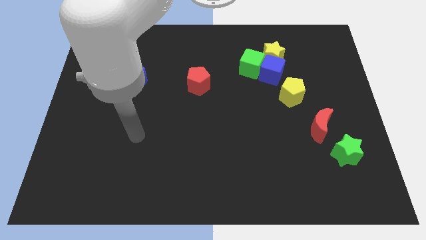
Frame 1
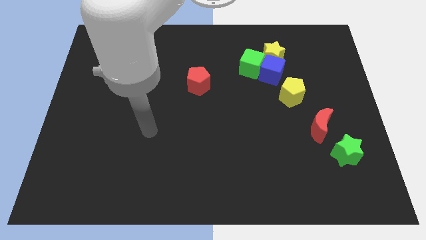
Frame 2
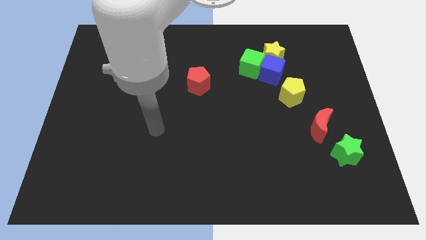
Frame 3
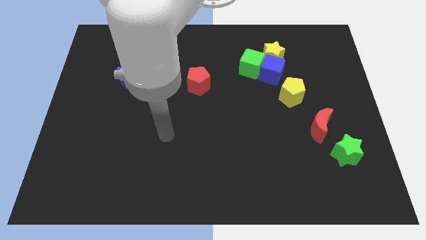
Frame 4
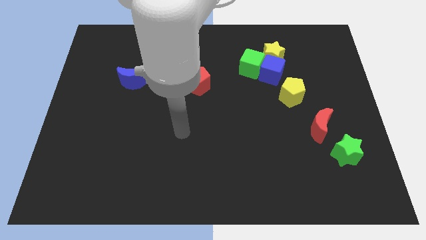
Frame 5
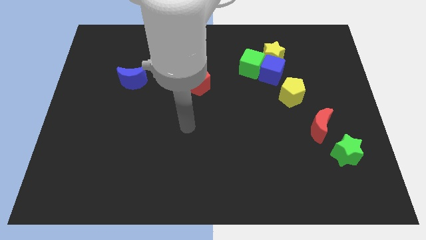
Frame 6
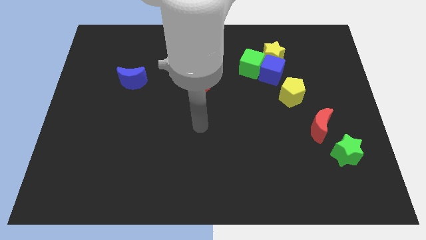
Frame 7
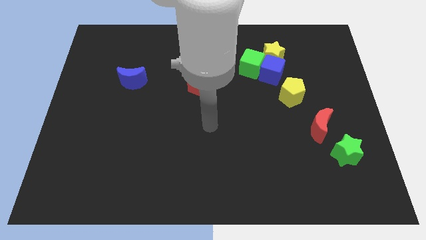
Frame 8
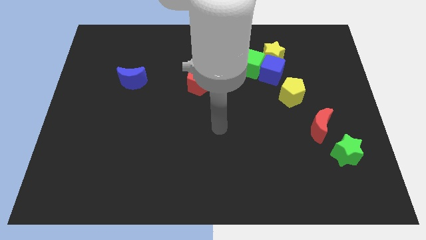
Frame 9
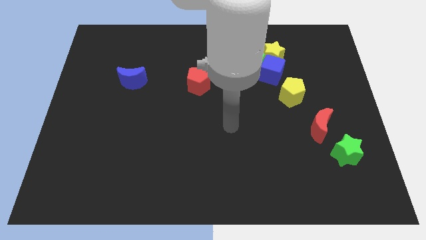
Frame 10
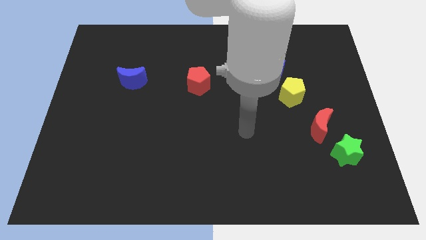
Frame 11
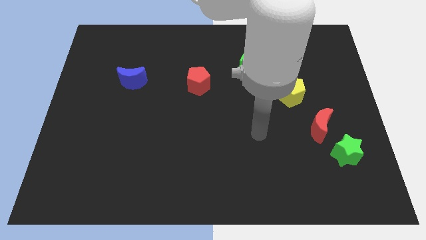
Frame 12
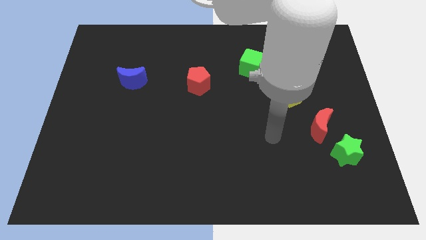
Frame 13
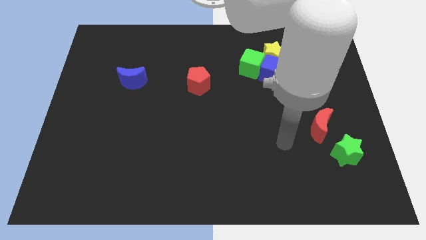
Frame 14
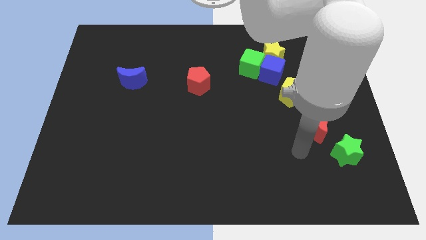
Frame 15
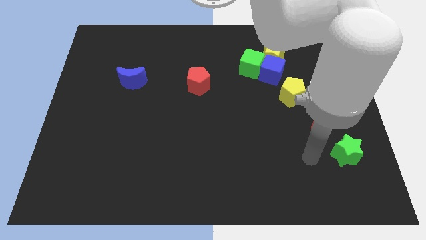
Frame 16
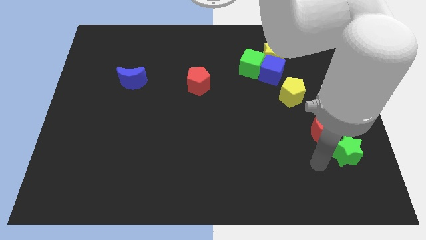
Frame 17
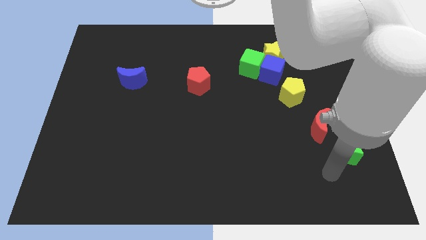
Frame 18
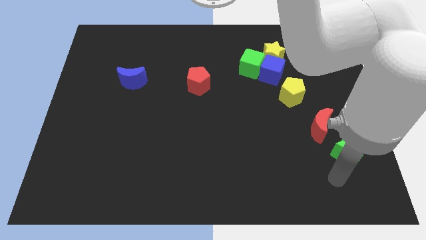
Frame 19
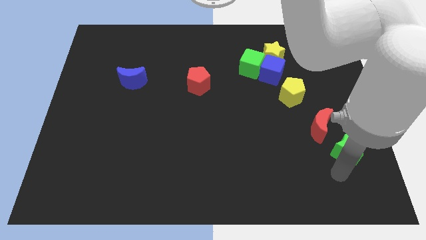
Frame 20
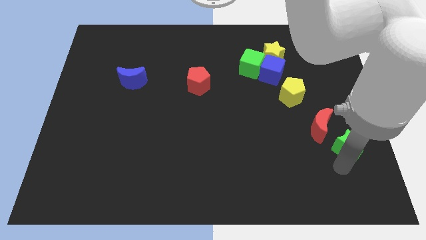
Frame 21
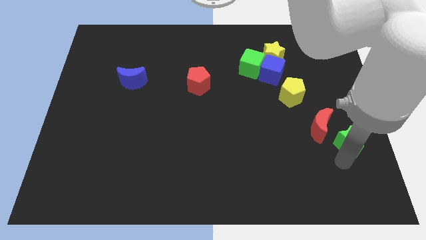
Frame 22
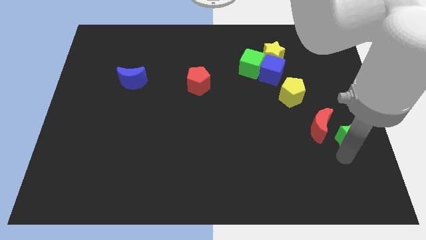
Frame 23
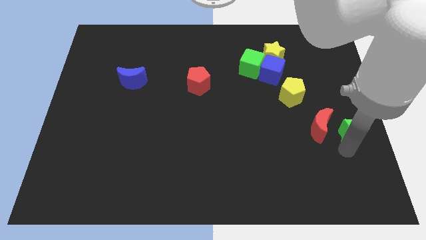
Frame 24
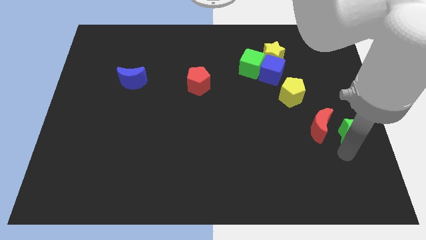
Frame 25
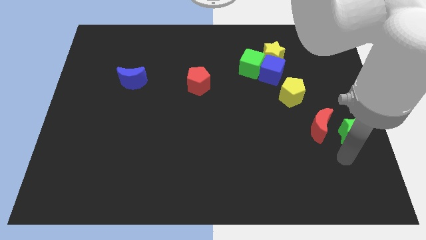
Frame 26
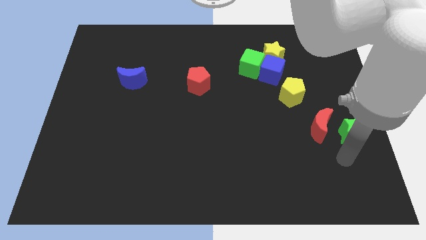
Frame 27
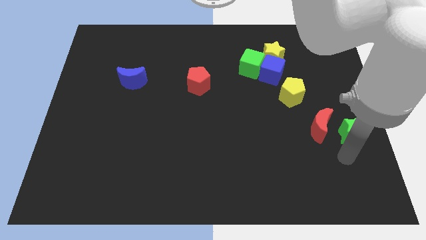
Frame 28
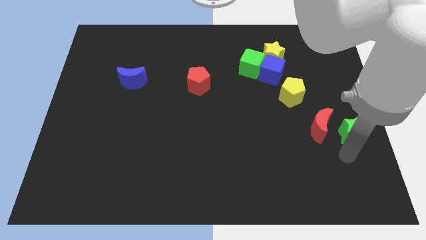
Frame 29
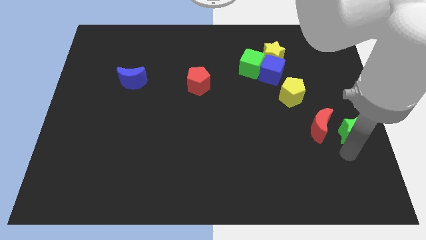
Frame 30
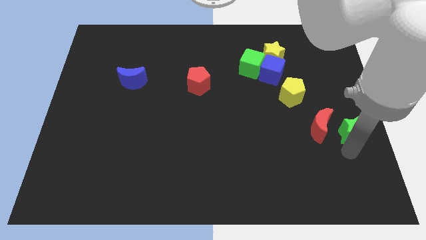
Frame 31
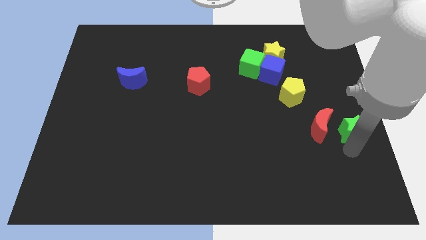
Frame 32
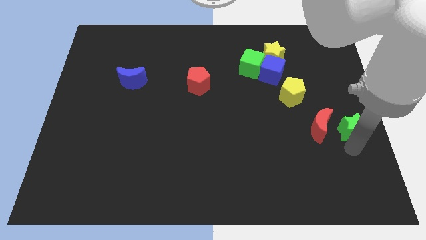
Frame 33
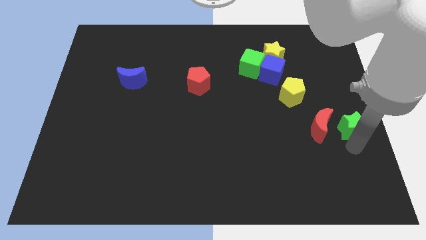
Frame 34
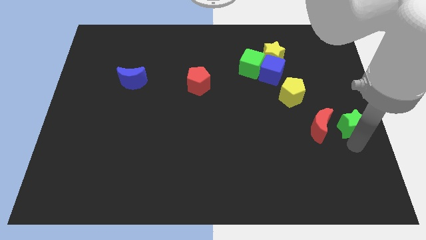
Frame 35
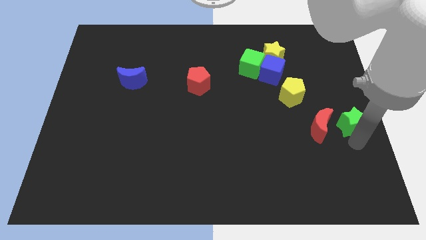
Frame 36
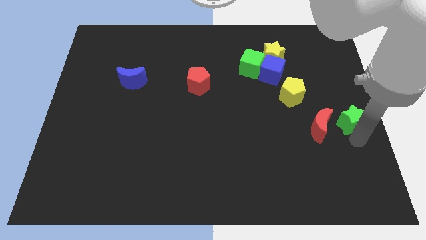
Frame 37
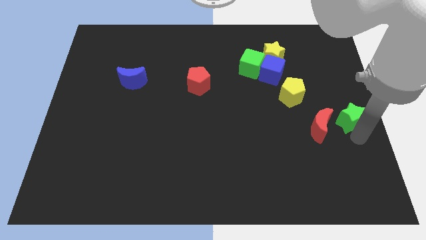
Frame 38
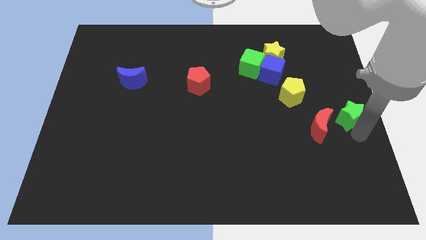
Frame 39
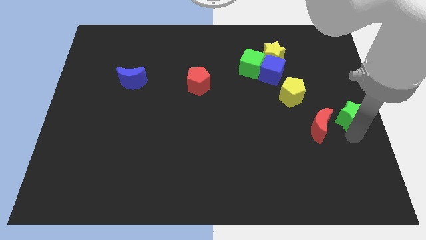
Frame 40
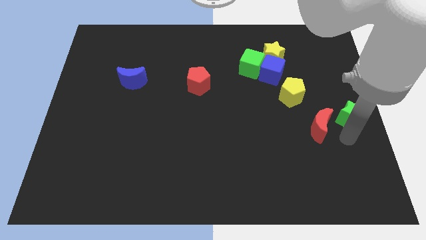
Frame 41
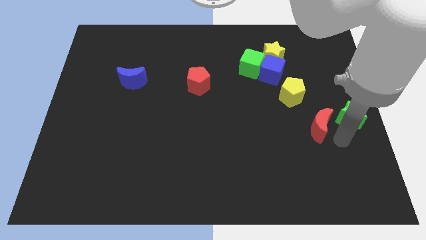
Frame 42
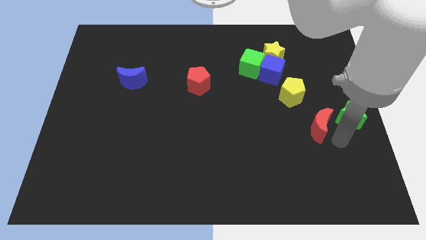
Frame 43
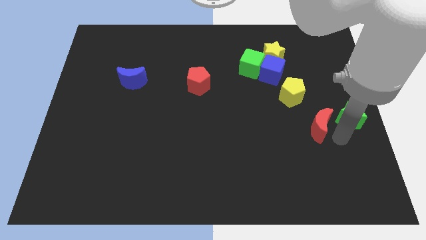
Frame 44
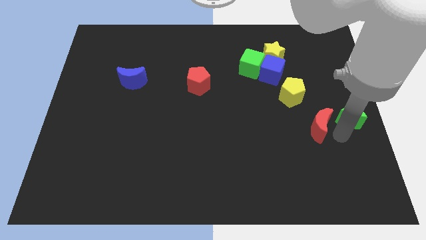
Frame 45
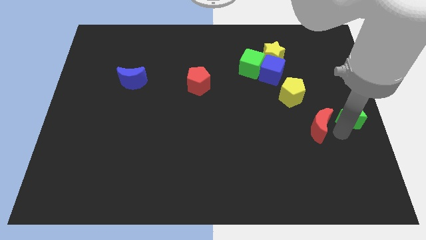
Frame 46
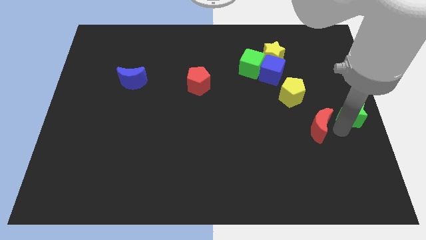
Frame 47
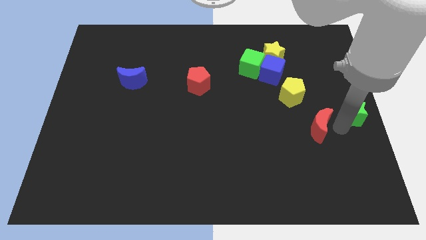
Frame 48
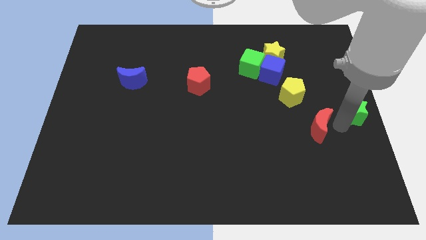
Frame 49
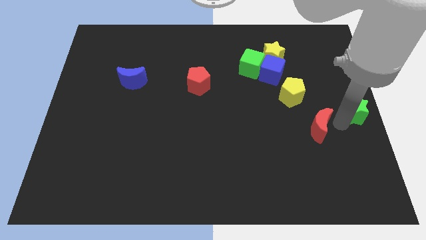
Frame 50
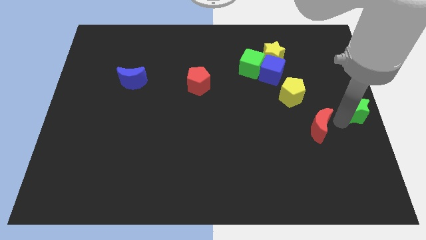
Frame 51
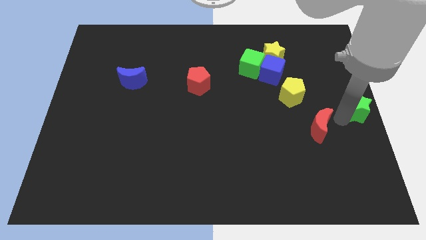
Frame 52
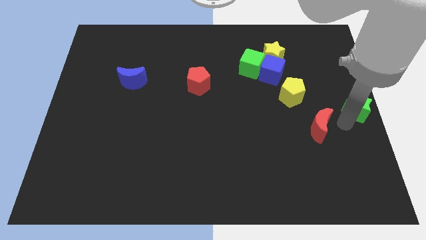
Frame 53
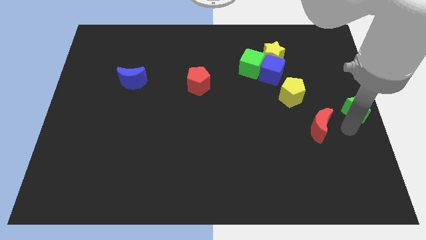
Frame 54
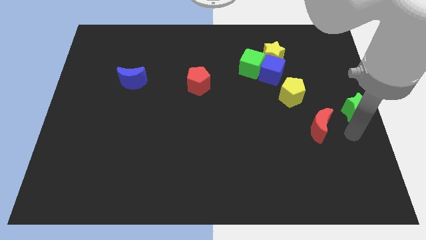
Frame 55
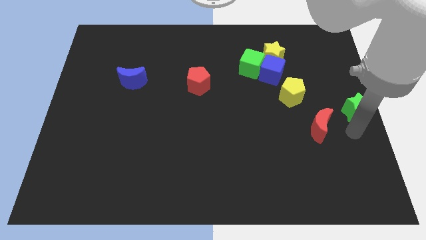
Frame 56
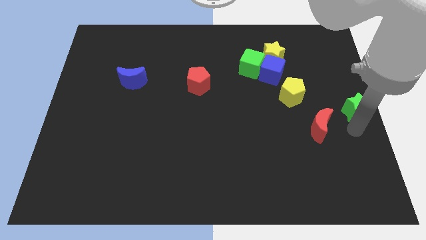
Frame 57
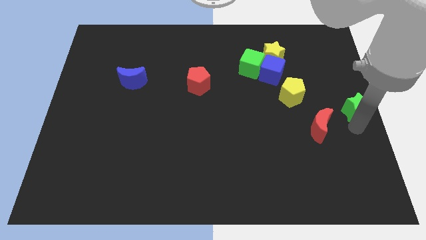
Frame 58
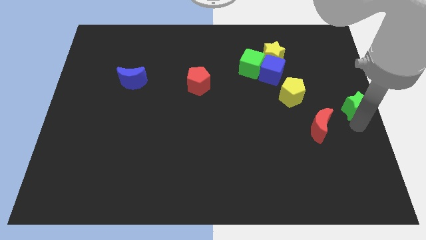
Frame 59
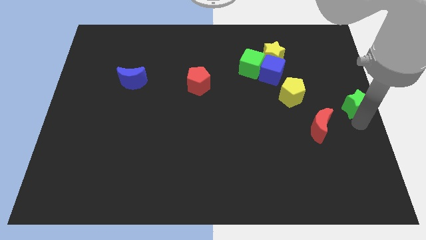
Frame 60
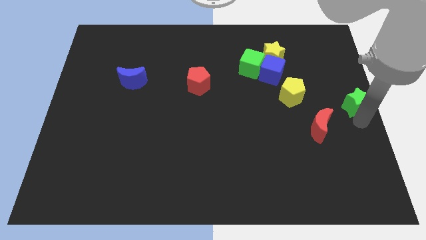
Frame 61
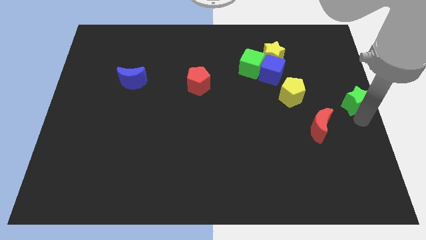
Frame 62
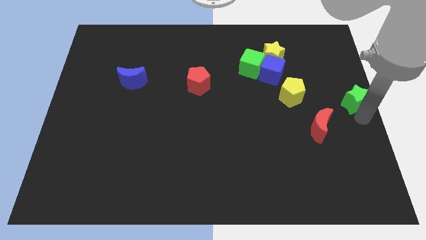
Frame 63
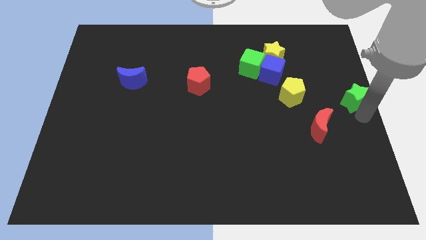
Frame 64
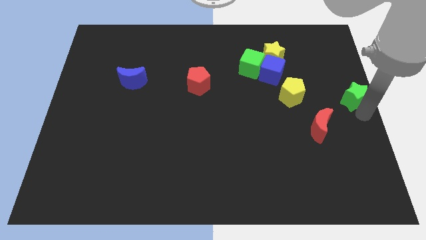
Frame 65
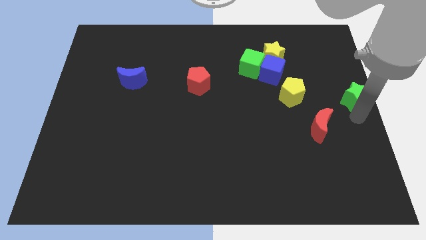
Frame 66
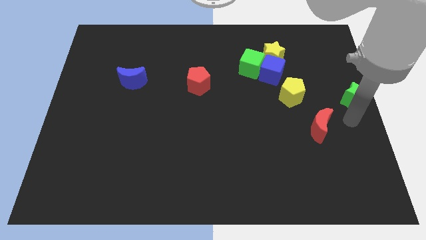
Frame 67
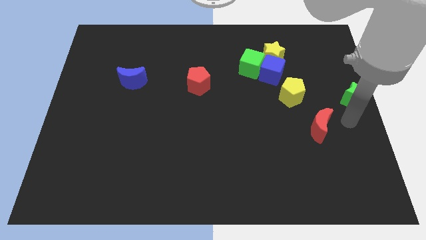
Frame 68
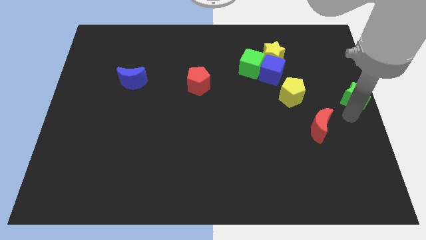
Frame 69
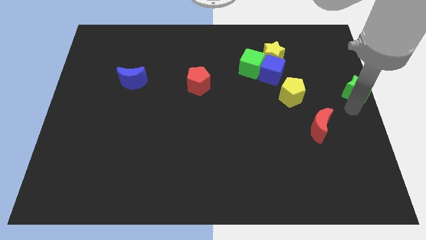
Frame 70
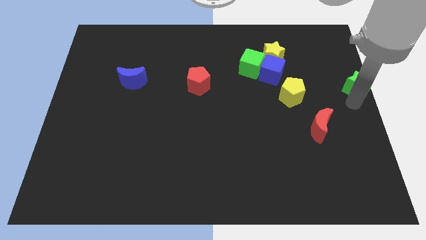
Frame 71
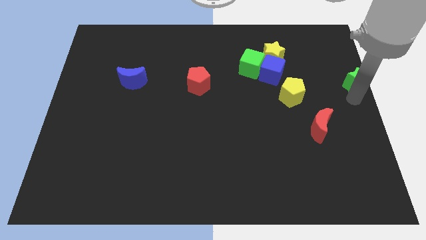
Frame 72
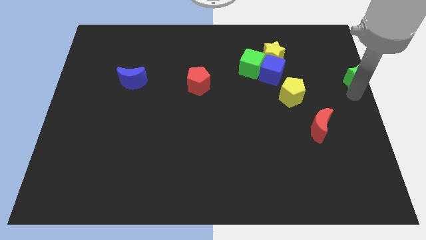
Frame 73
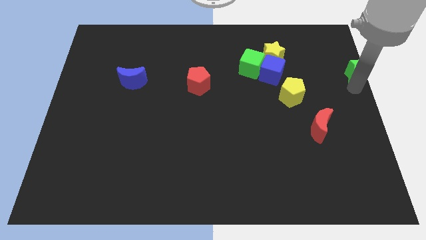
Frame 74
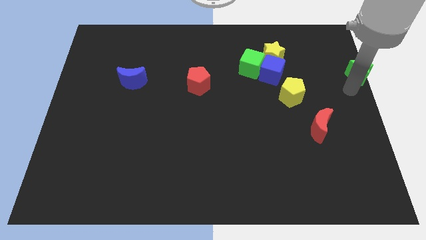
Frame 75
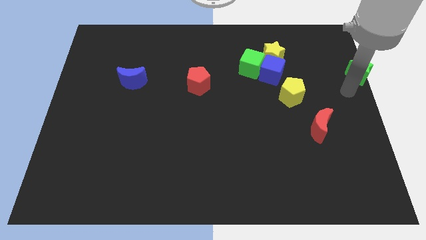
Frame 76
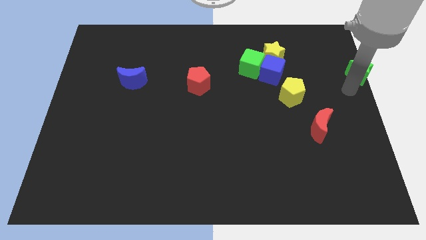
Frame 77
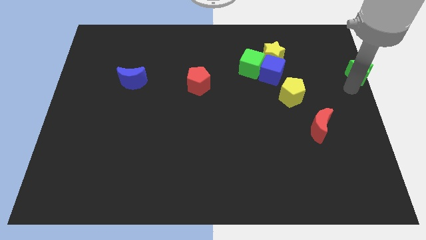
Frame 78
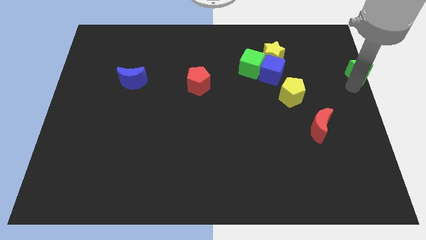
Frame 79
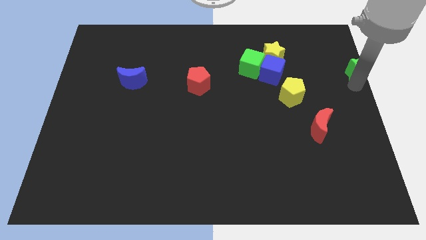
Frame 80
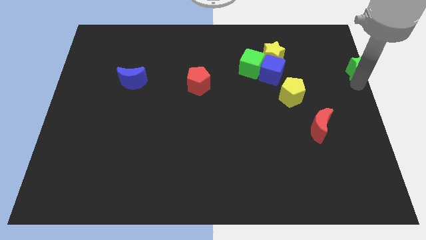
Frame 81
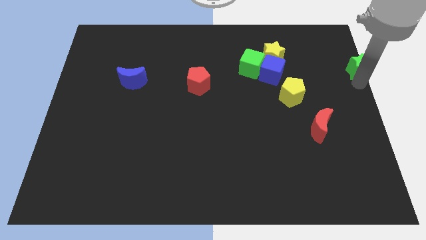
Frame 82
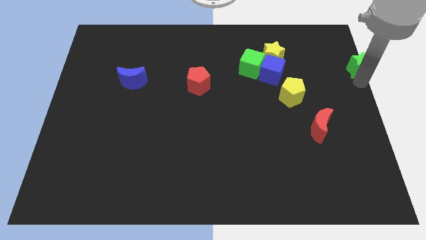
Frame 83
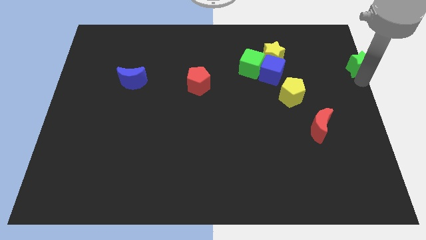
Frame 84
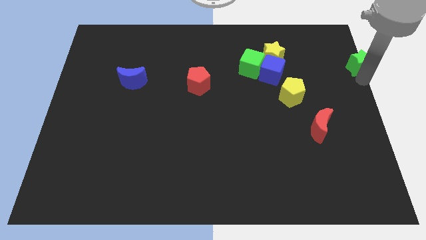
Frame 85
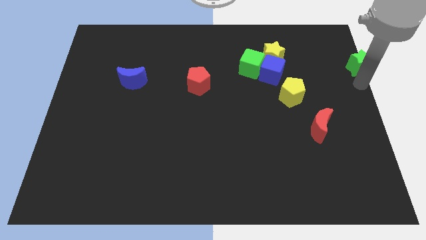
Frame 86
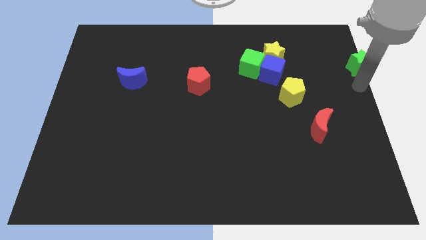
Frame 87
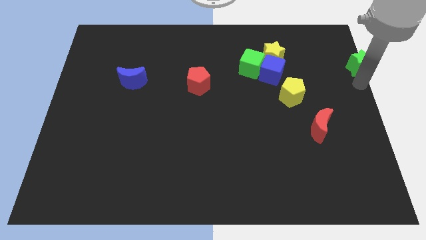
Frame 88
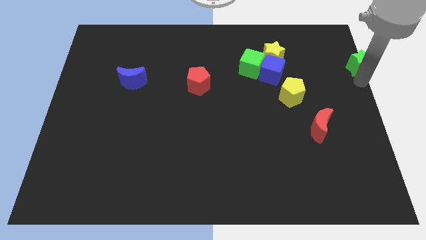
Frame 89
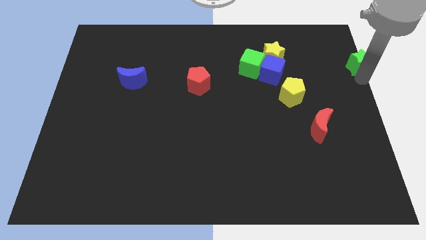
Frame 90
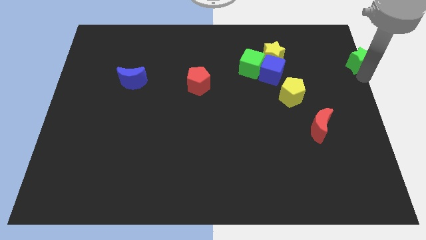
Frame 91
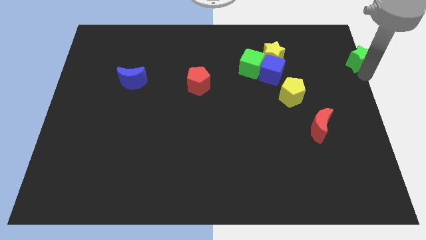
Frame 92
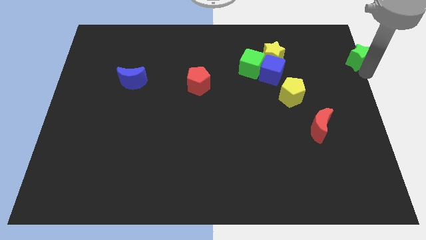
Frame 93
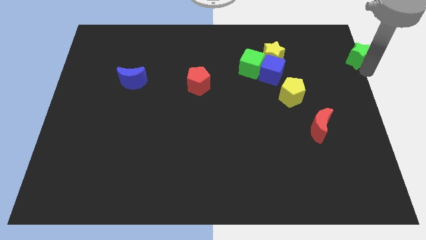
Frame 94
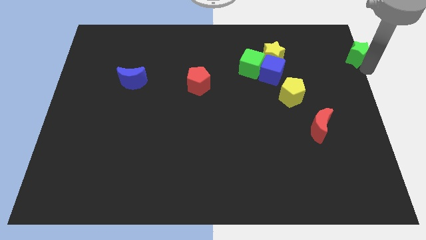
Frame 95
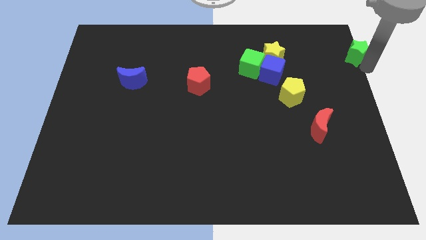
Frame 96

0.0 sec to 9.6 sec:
slide the green star to the top right
